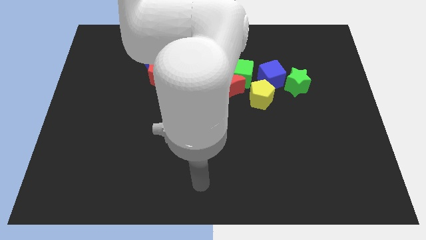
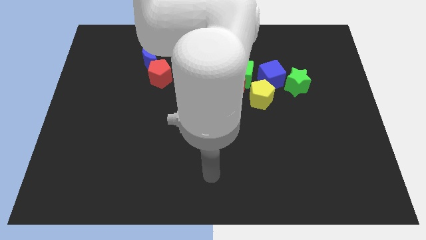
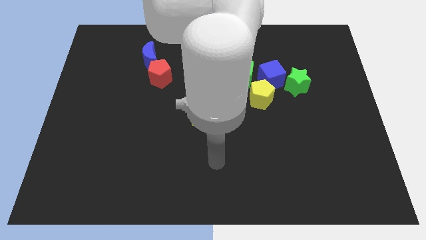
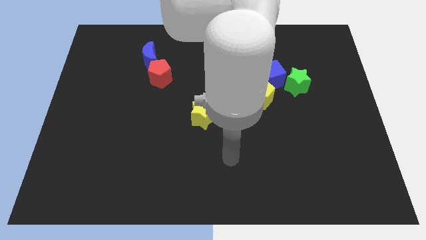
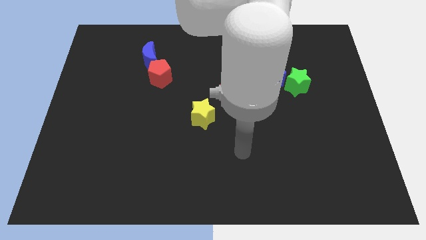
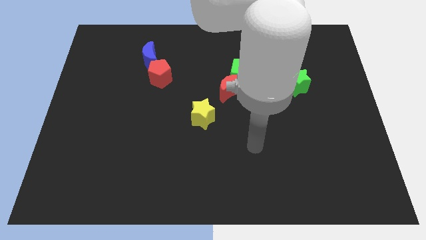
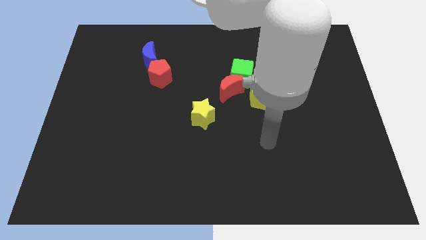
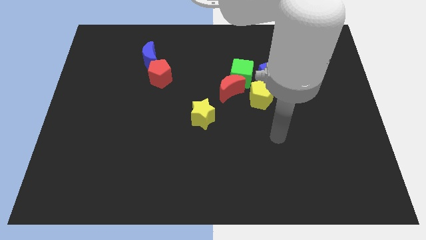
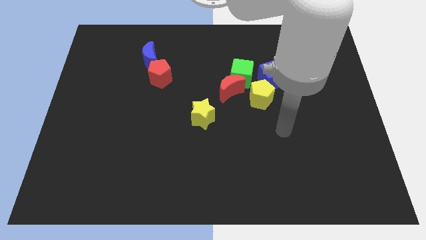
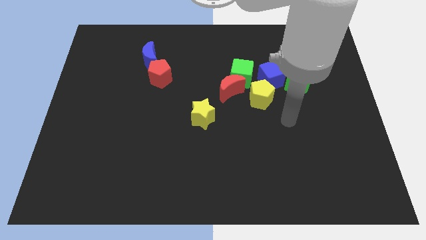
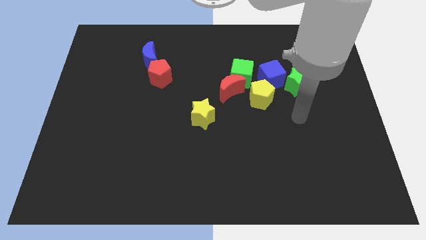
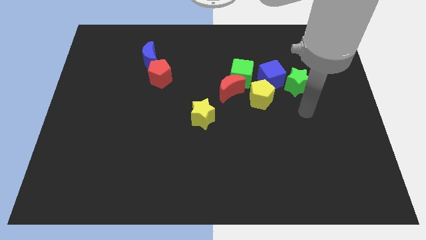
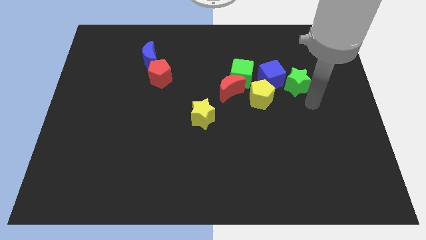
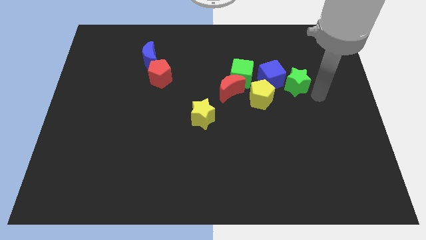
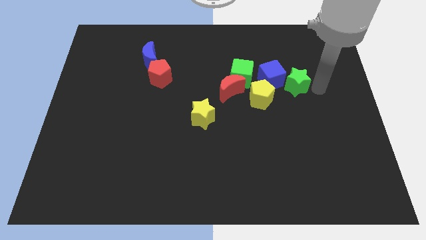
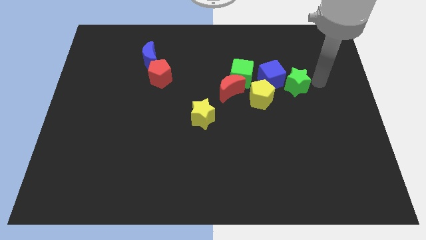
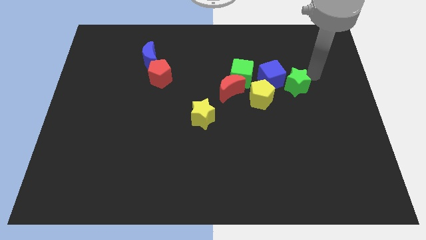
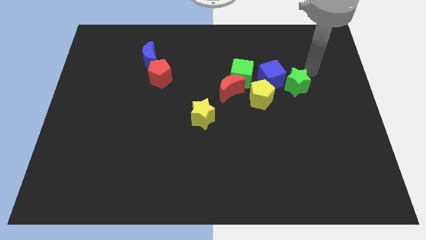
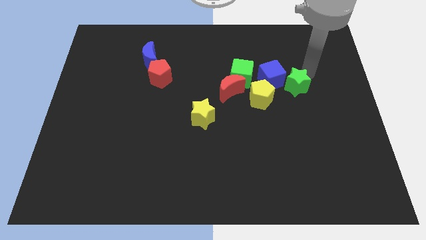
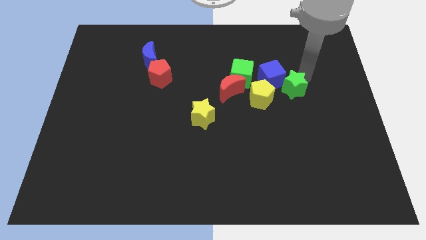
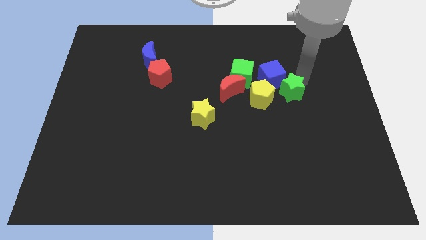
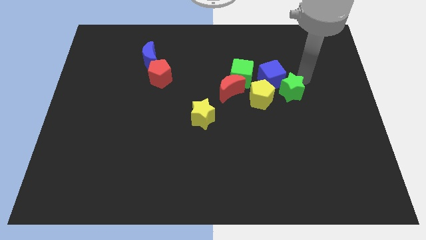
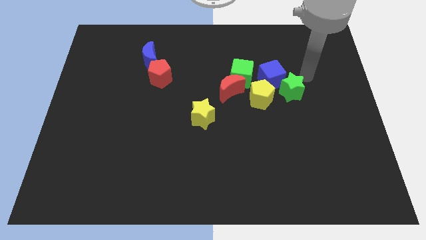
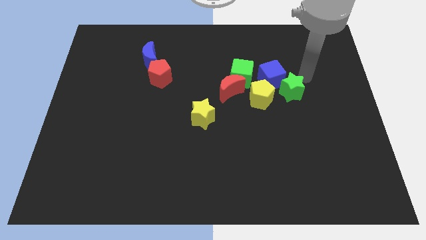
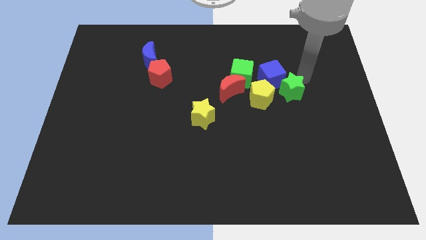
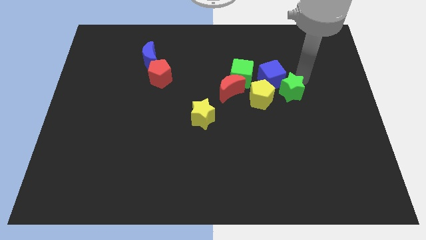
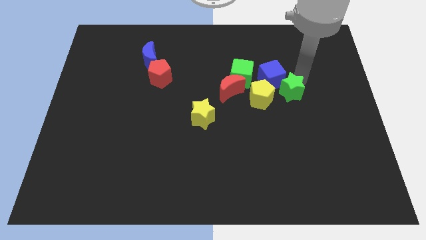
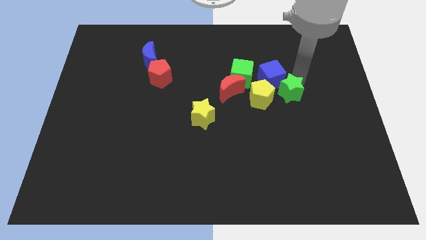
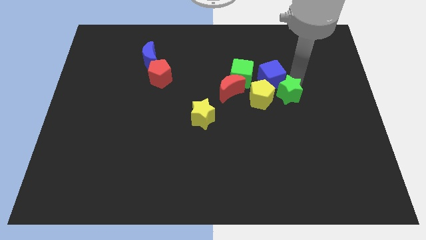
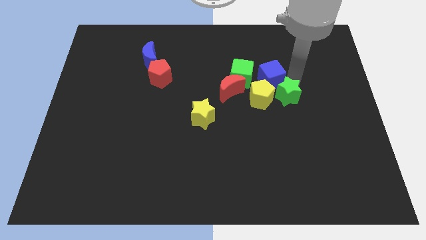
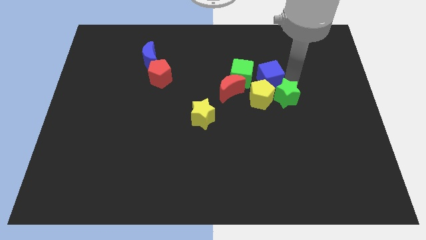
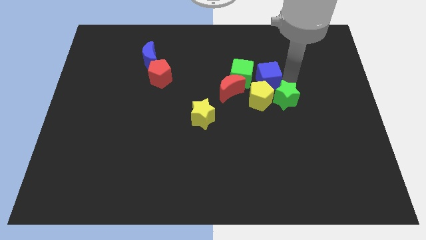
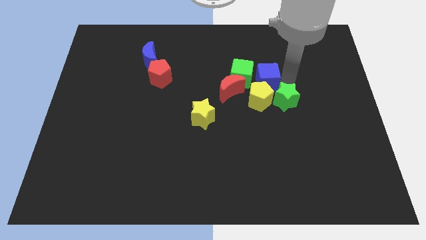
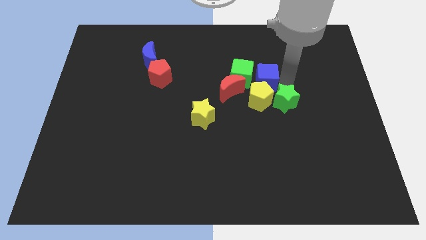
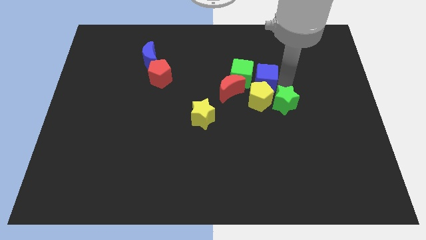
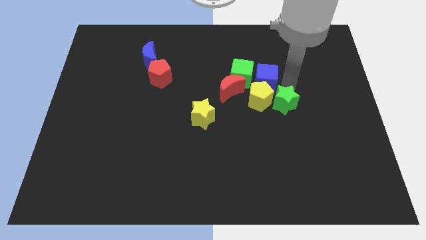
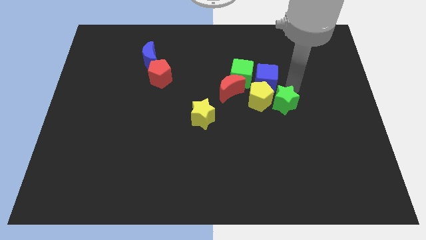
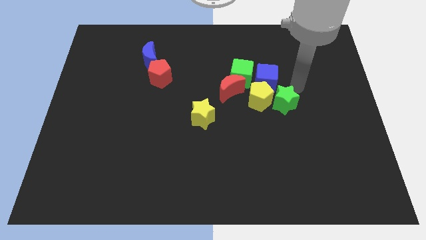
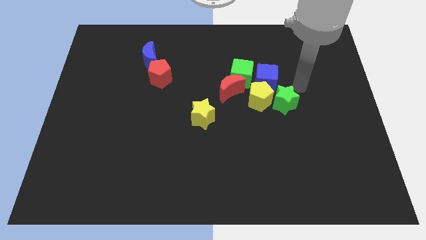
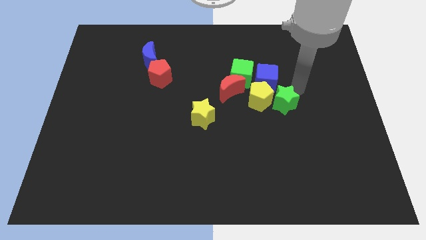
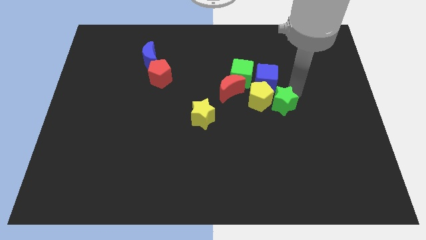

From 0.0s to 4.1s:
slightly move the green star diagonally downwards and to the left

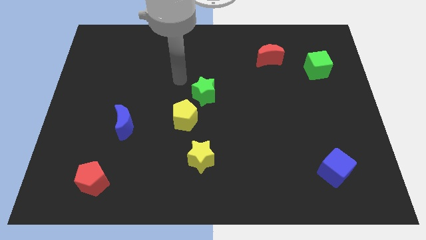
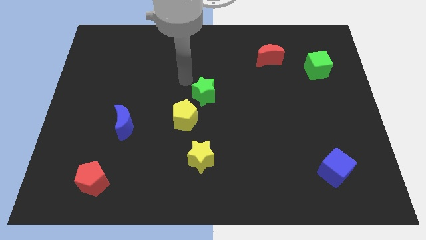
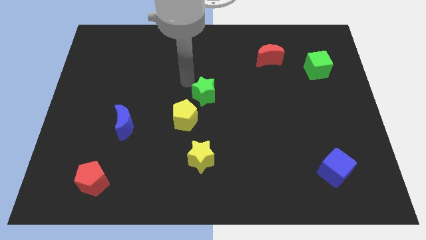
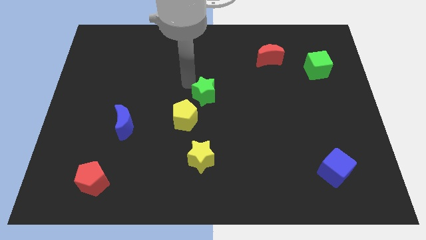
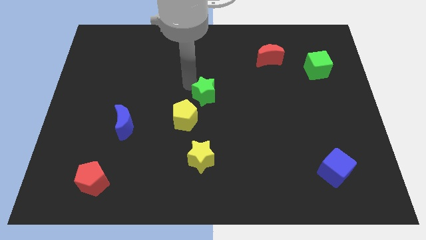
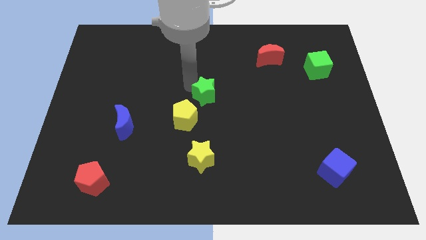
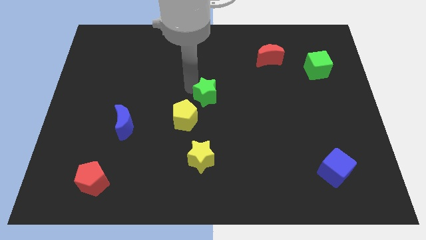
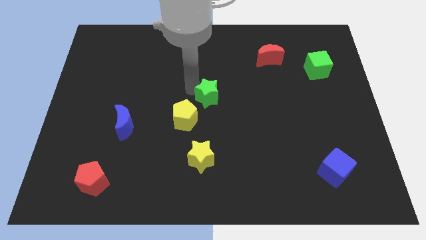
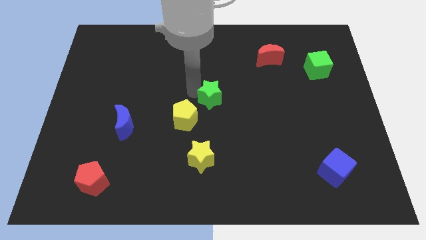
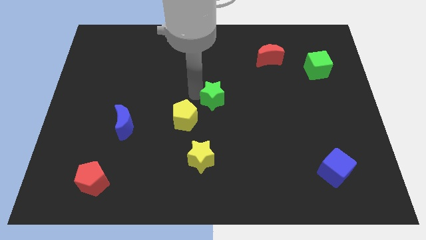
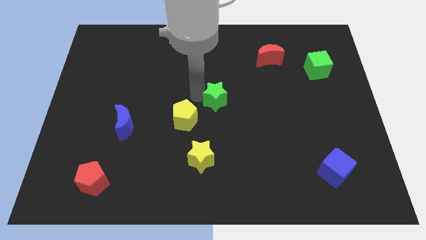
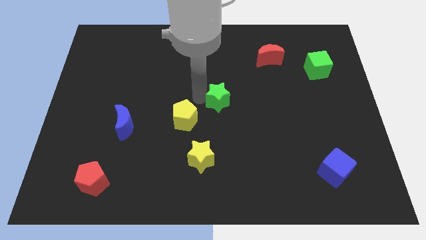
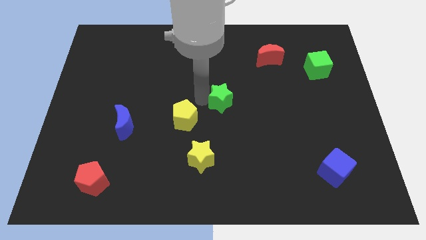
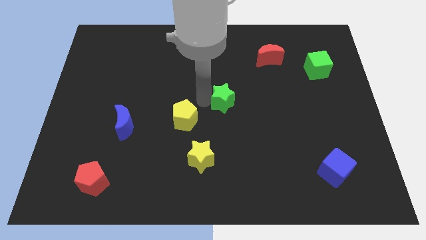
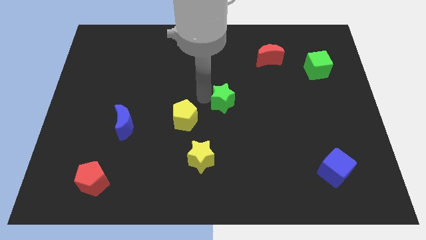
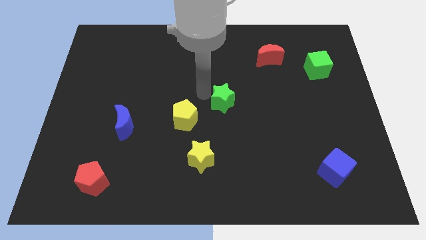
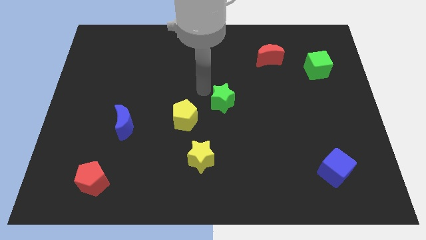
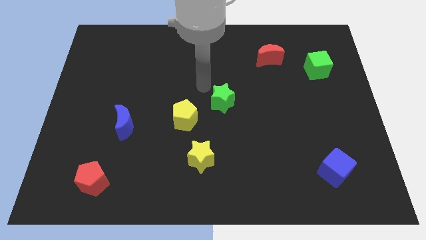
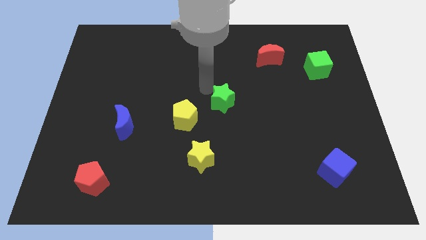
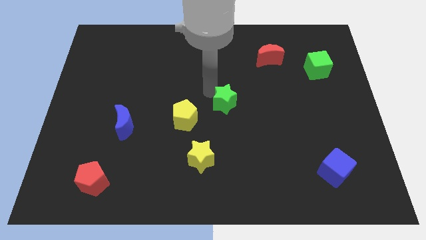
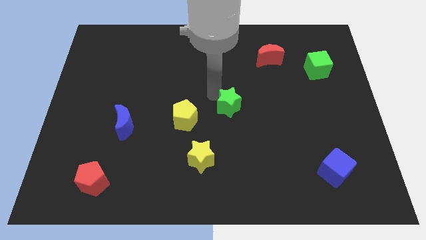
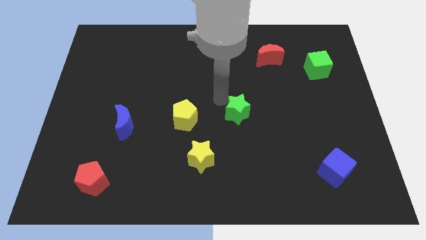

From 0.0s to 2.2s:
move the green star downwards and right slightly

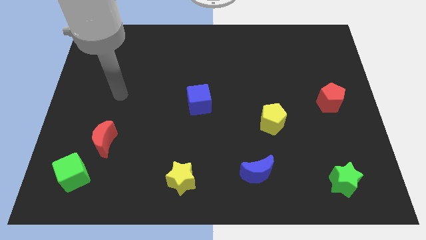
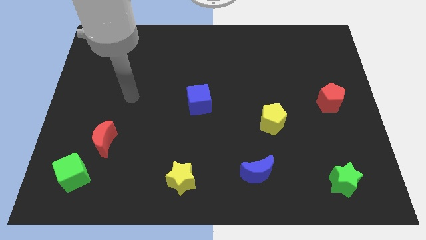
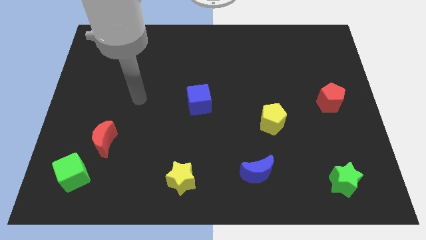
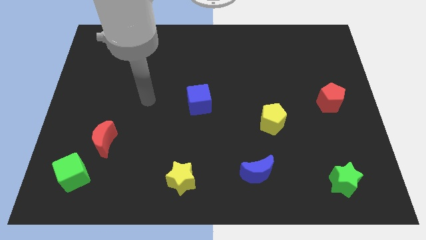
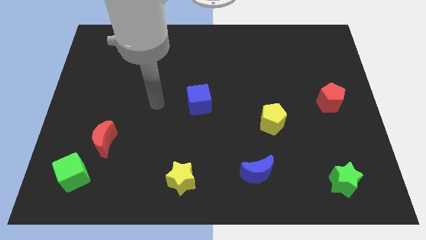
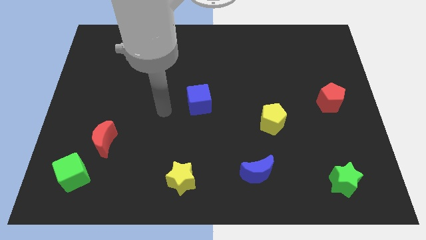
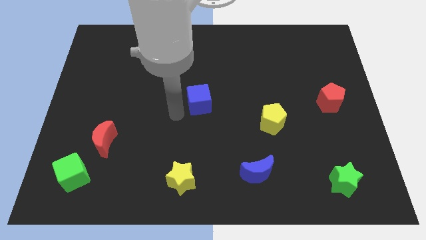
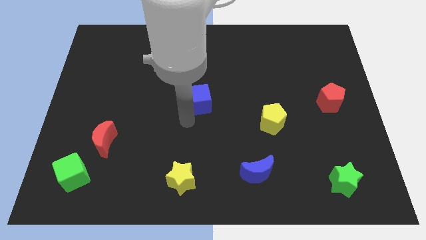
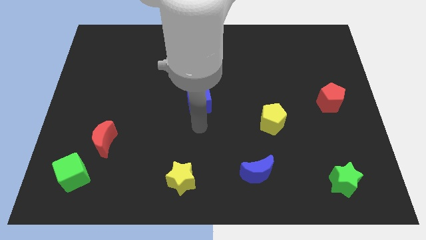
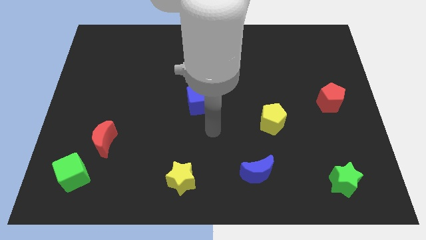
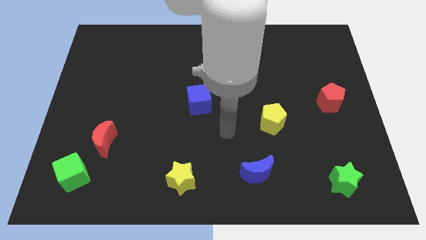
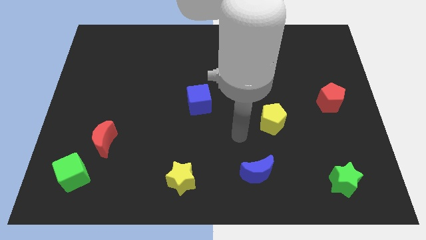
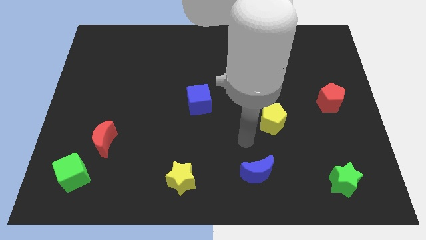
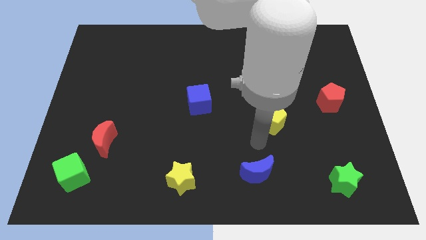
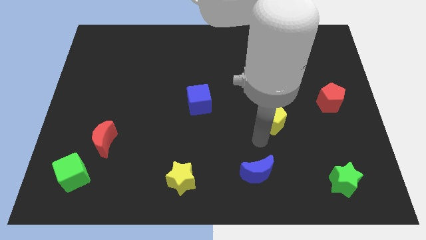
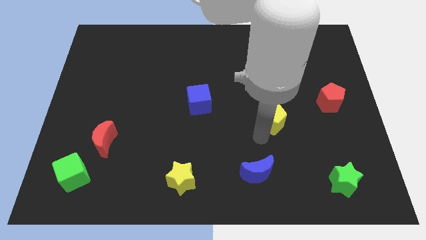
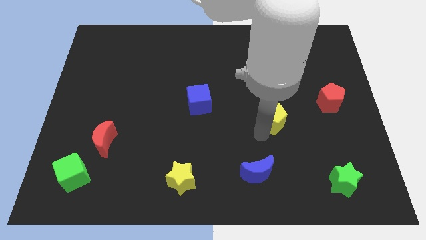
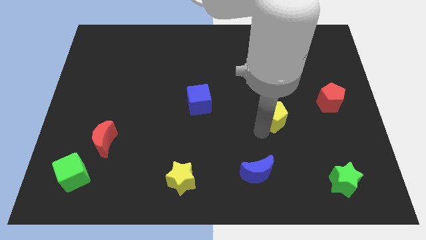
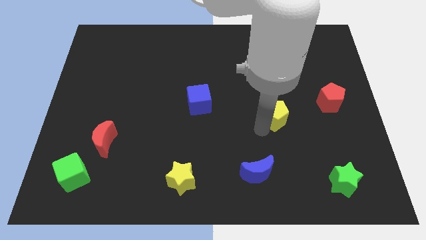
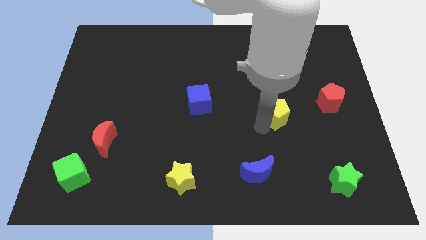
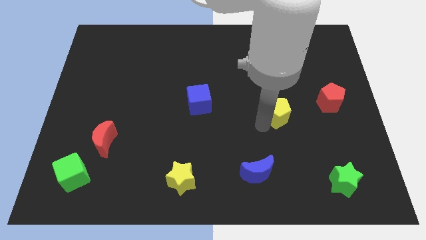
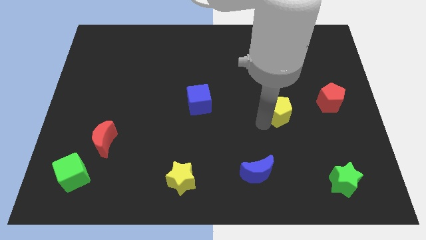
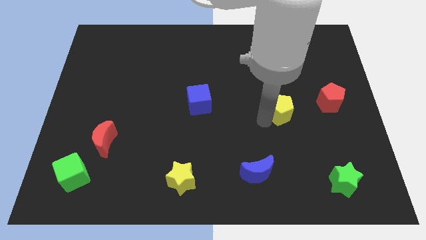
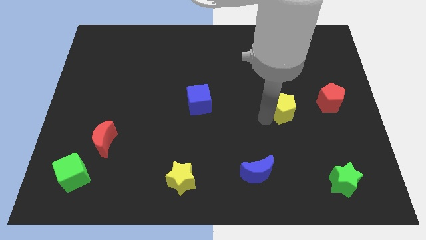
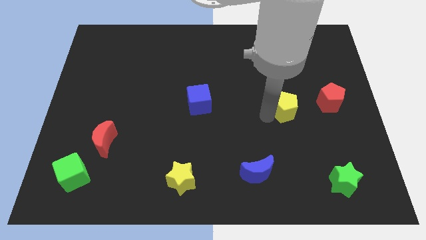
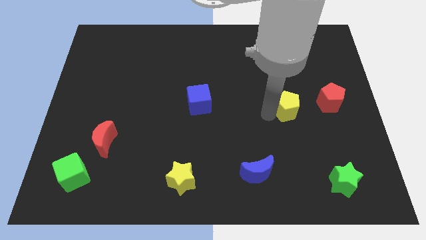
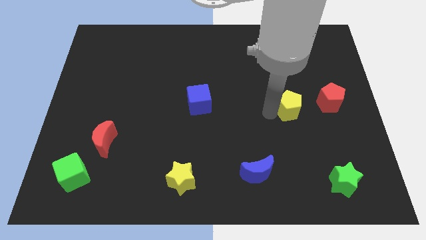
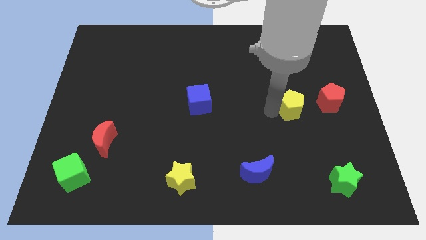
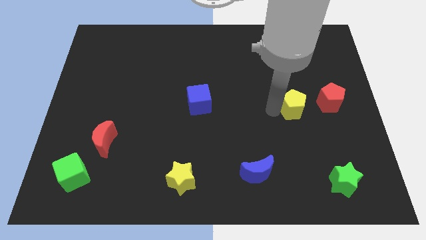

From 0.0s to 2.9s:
move the yellow pentagon upwards and right diagonally a little bit
